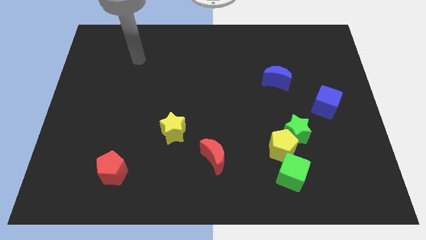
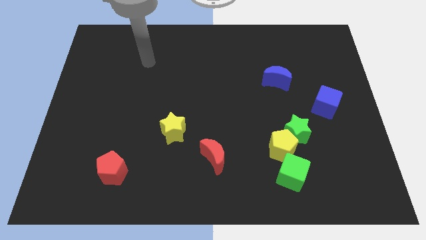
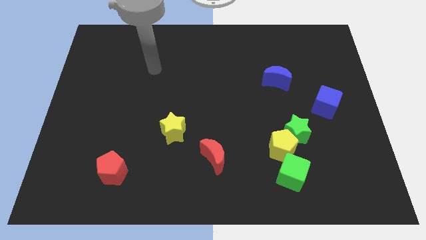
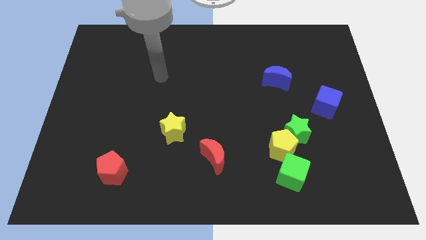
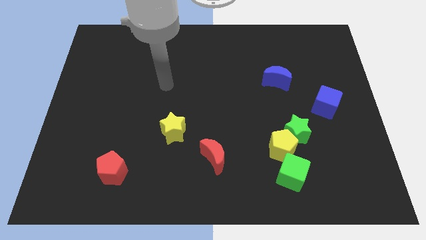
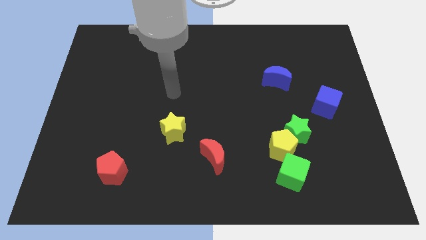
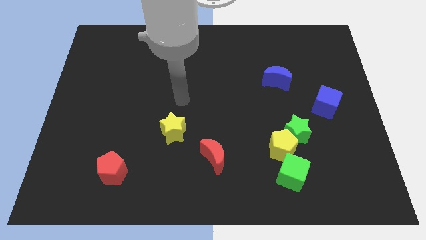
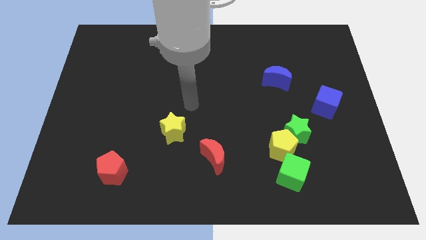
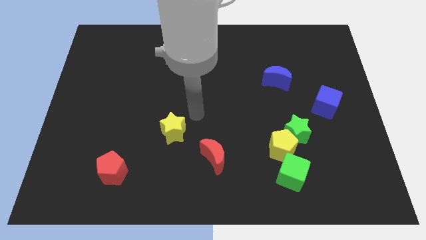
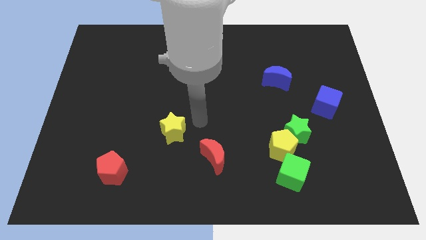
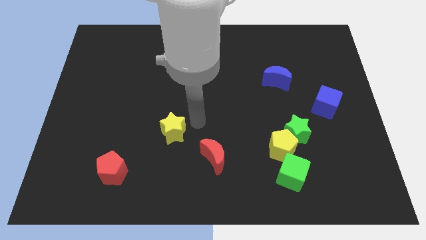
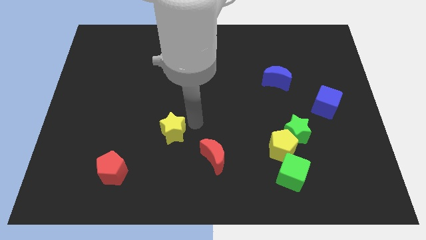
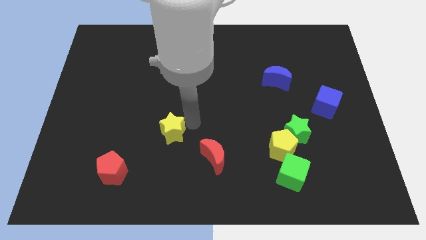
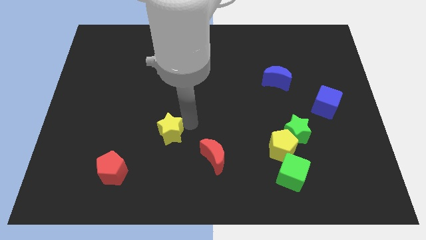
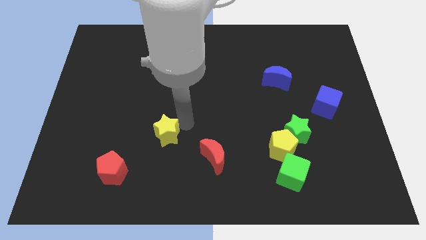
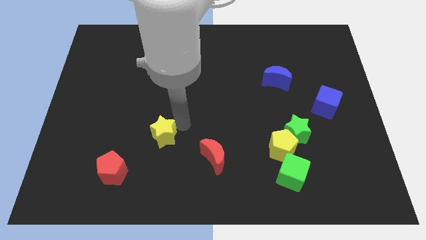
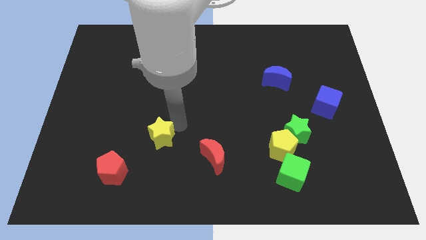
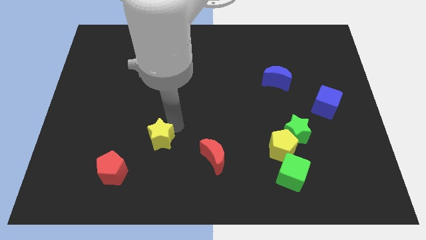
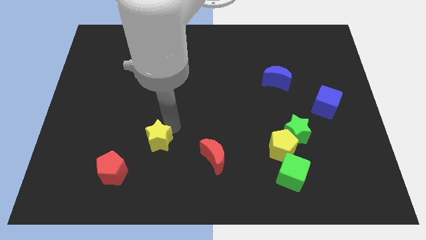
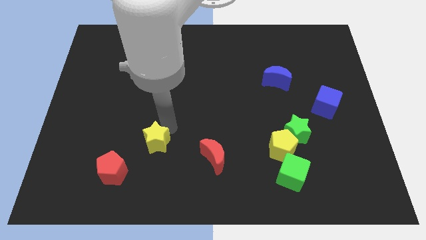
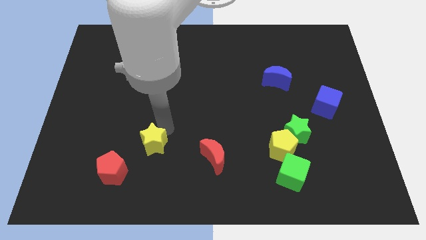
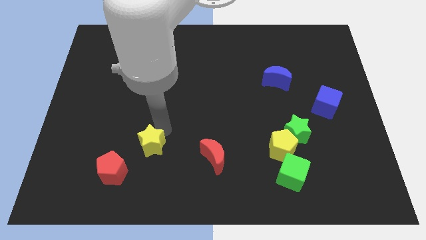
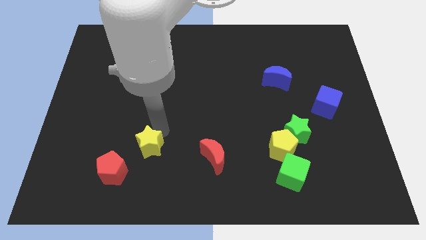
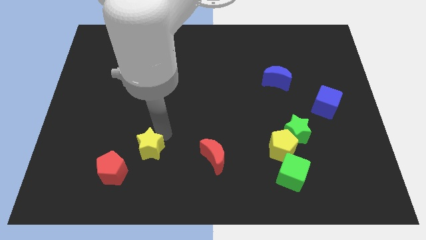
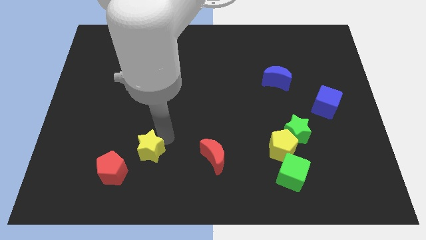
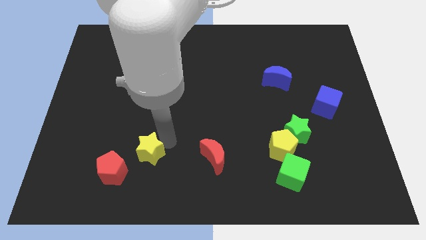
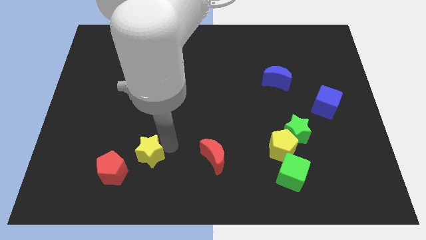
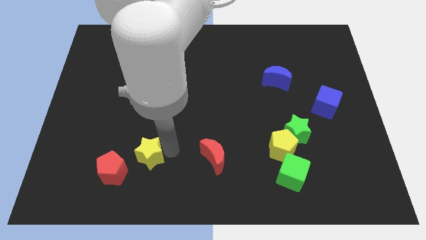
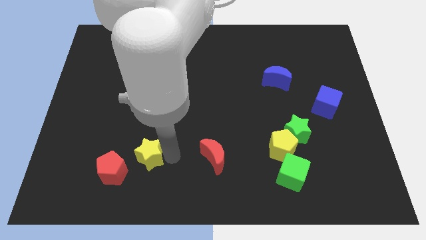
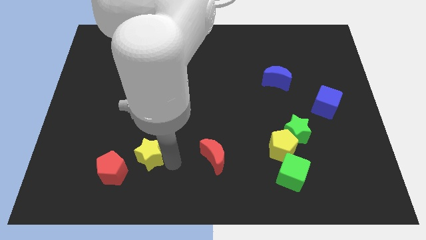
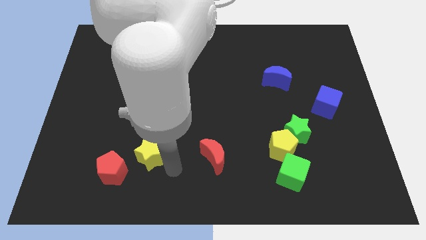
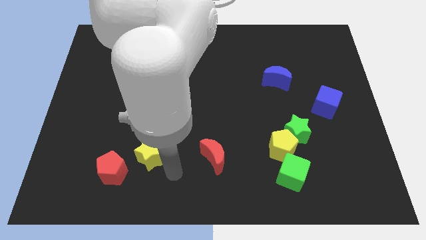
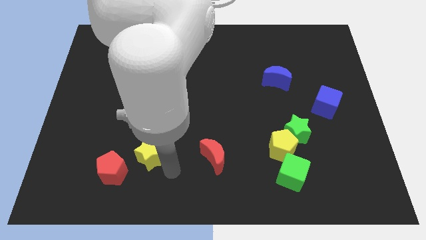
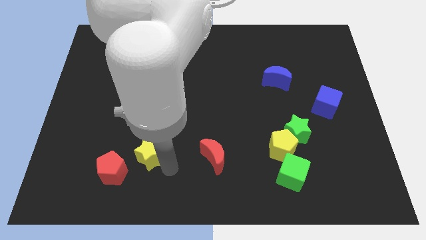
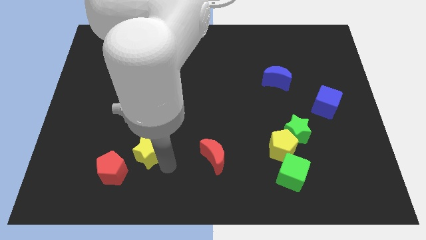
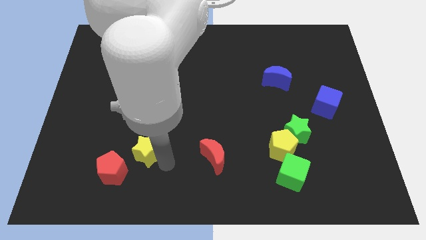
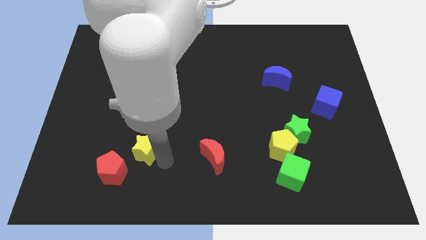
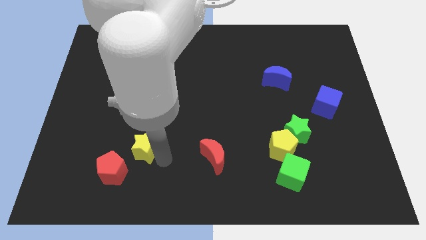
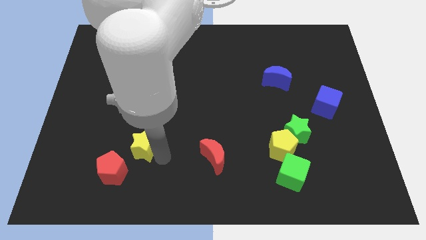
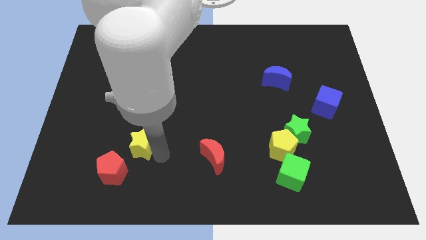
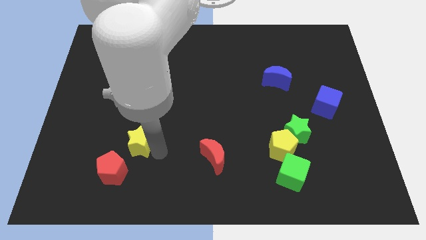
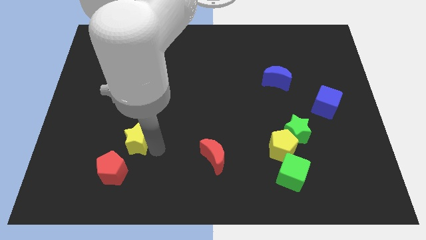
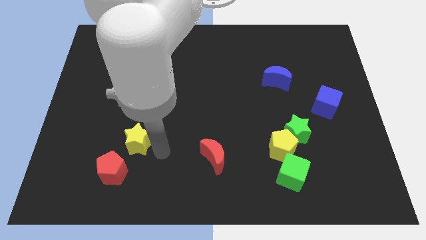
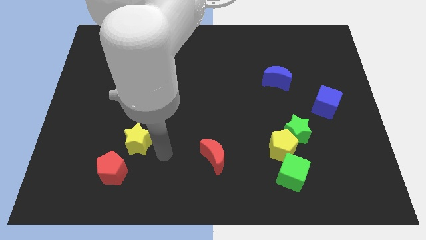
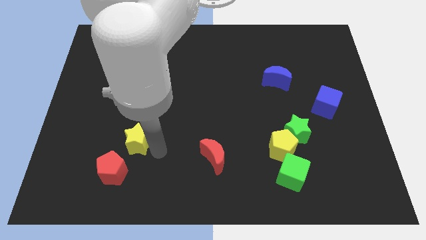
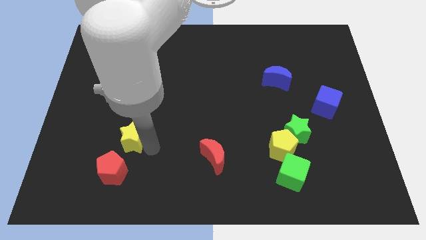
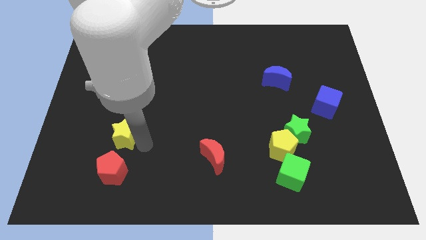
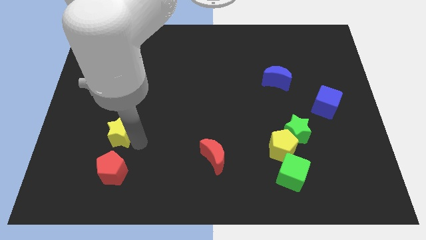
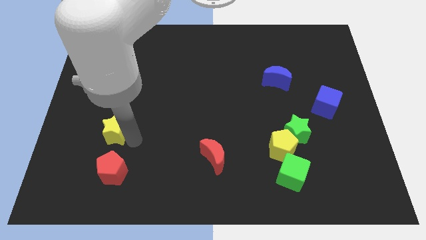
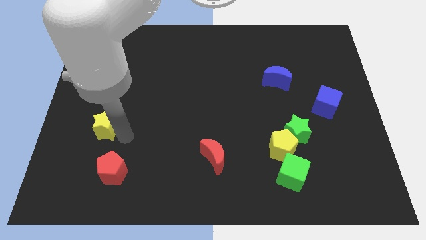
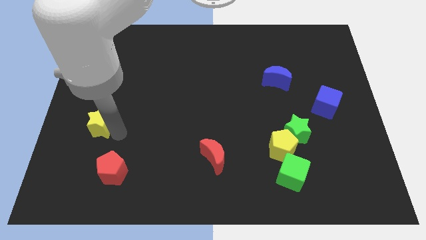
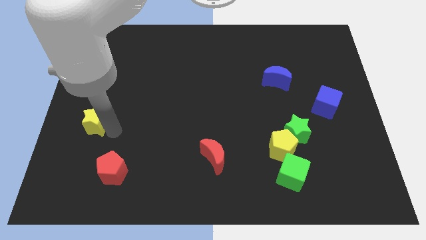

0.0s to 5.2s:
push the yellow star to the left side of the board

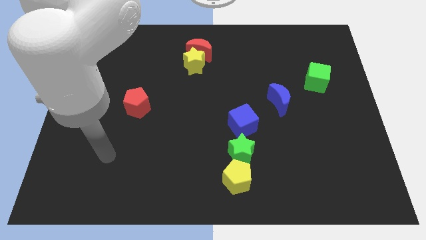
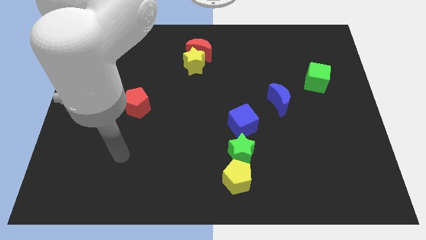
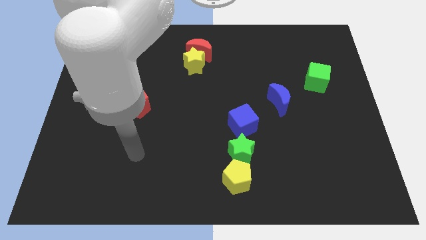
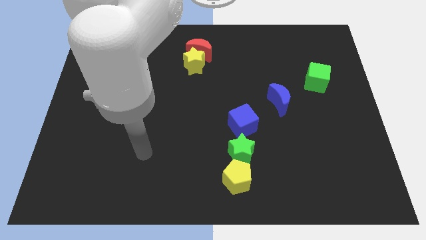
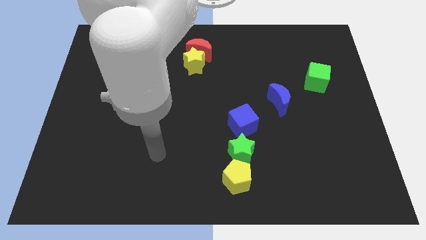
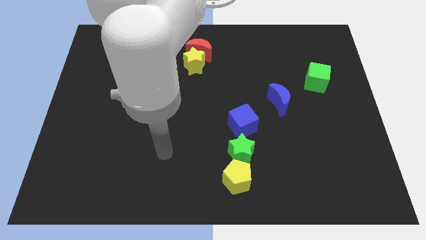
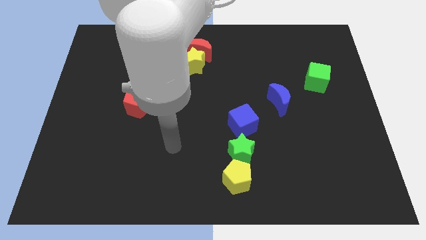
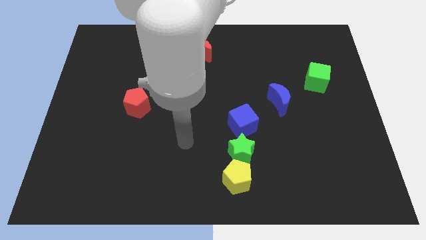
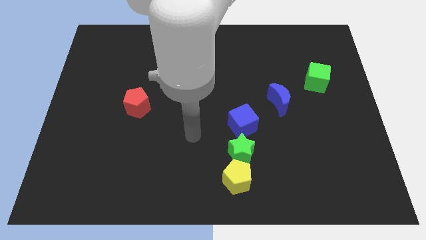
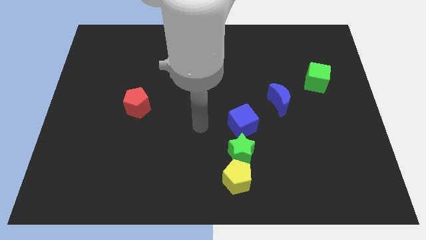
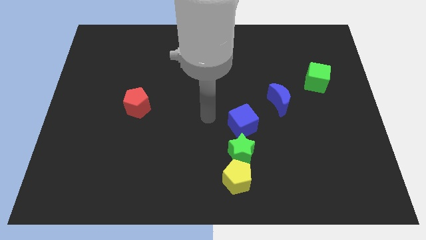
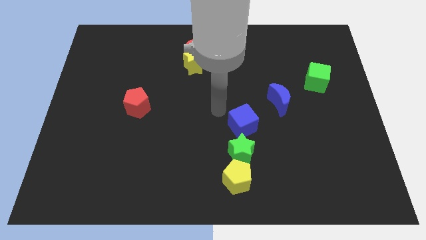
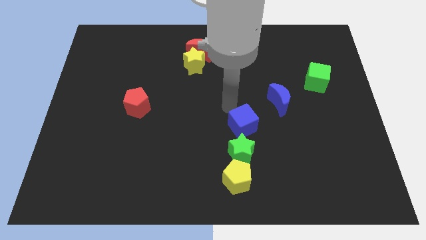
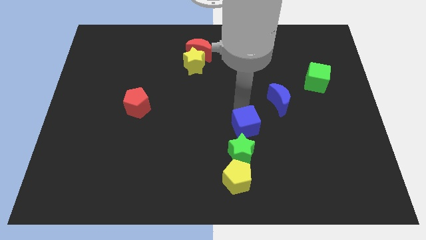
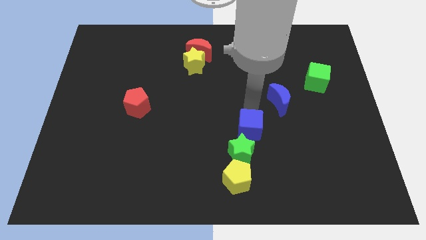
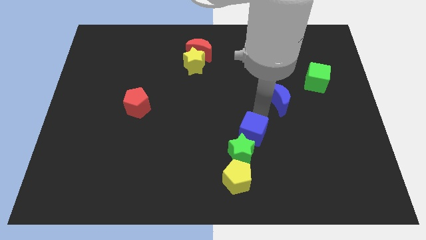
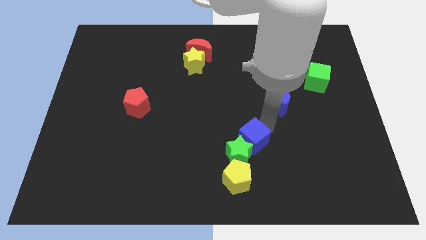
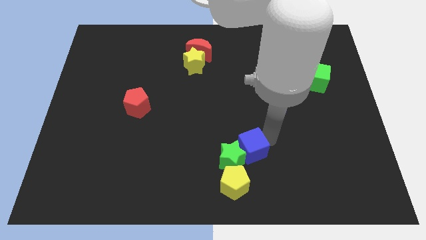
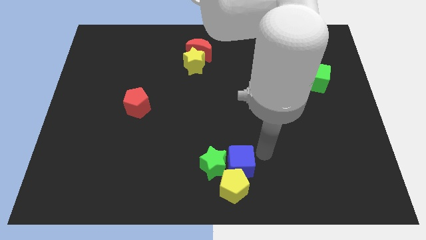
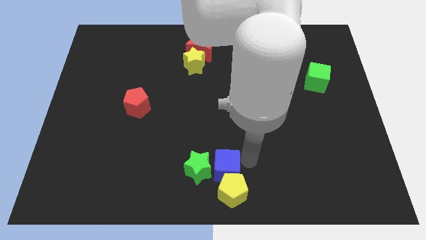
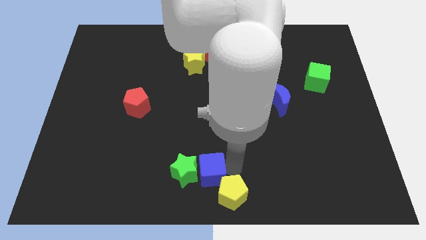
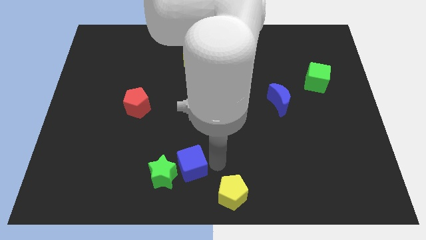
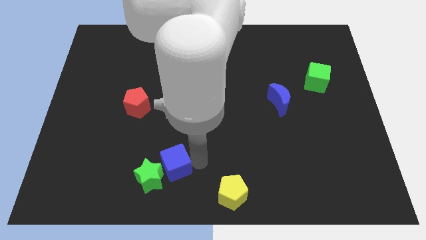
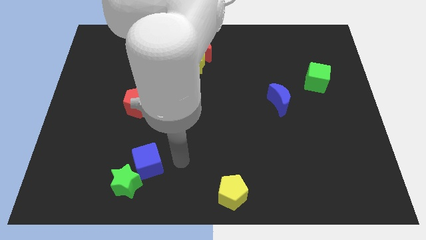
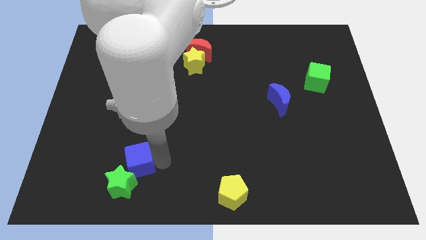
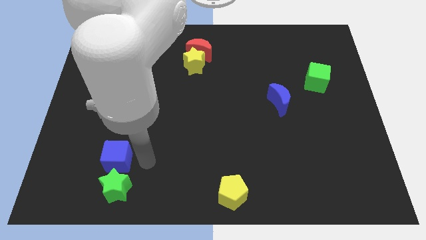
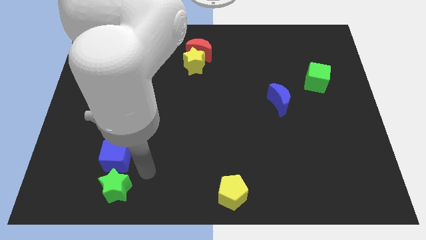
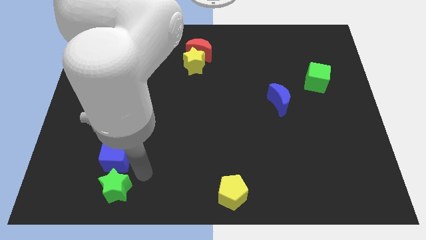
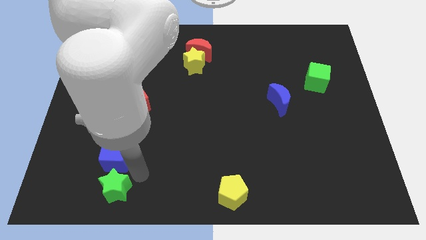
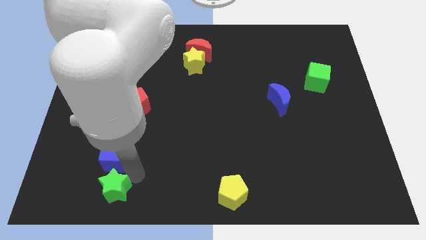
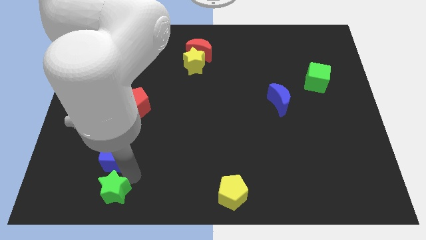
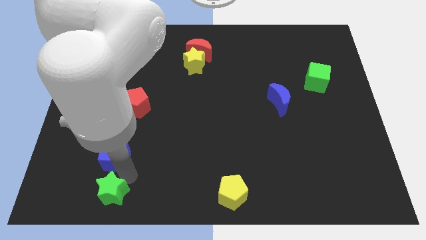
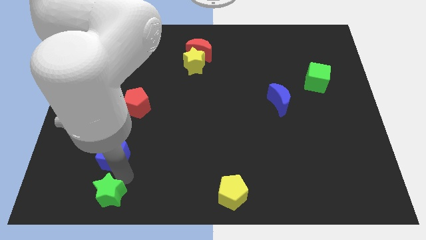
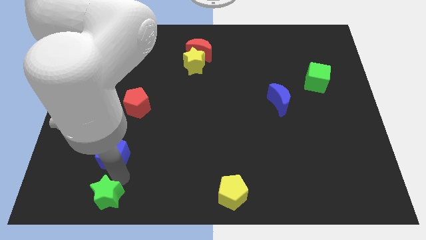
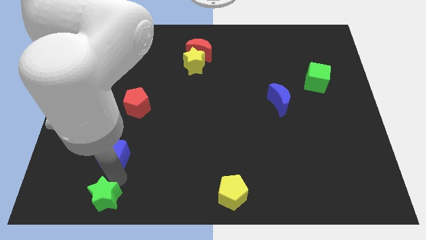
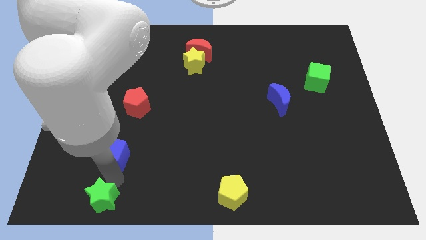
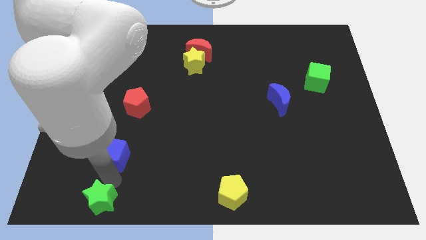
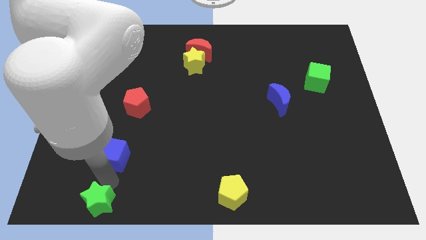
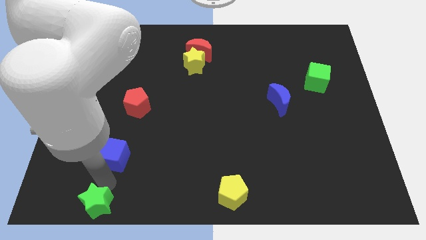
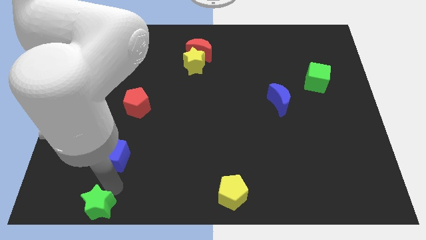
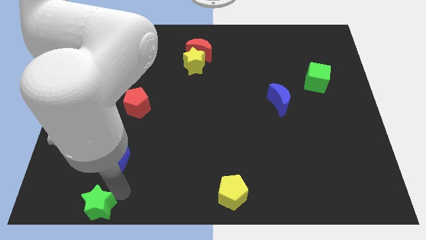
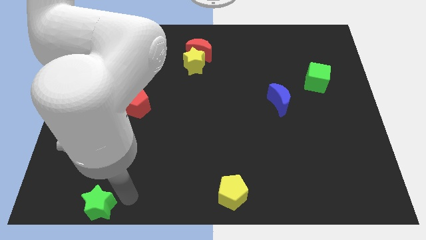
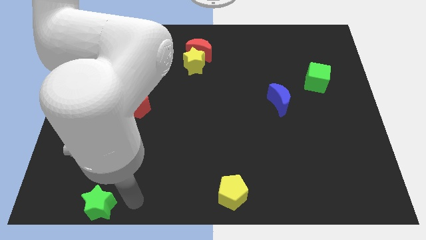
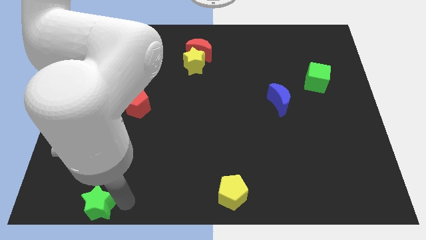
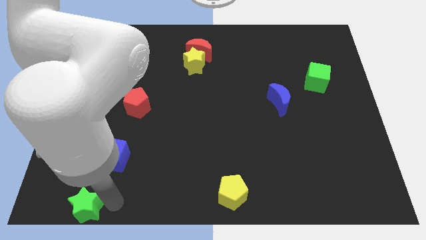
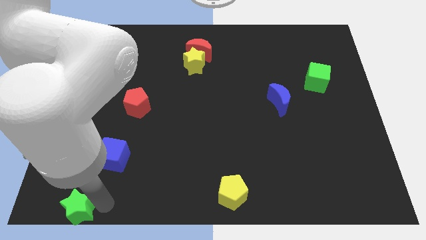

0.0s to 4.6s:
slide the green star to the bottom left of the board
